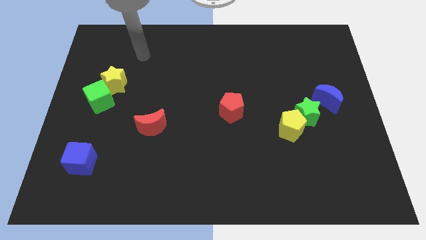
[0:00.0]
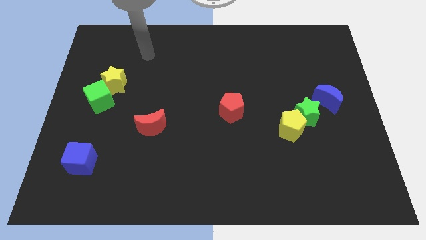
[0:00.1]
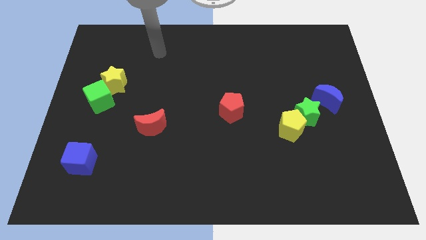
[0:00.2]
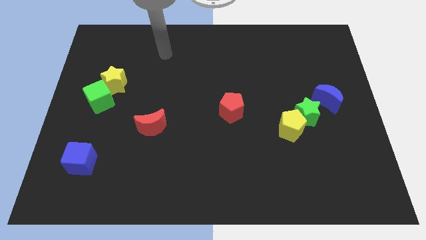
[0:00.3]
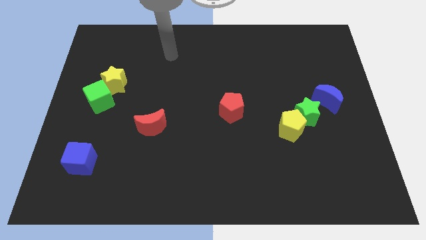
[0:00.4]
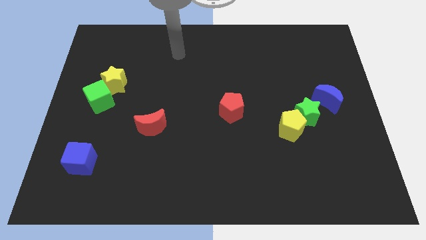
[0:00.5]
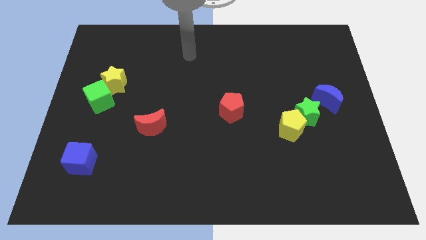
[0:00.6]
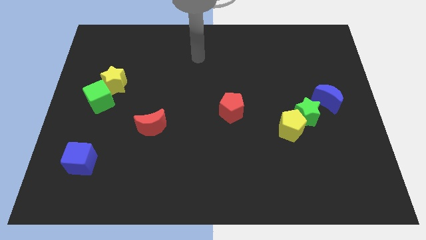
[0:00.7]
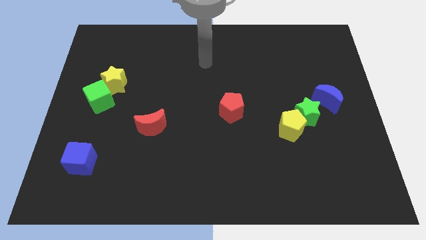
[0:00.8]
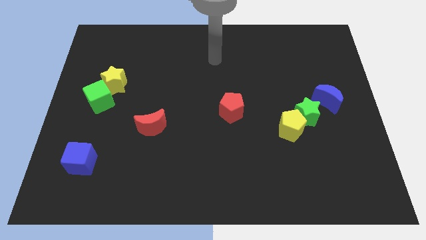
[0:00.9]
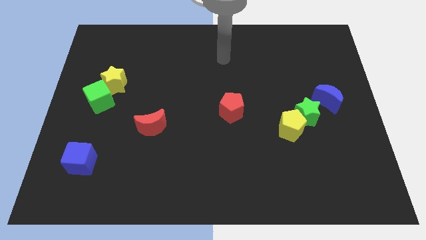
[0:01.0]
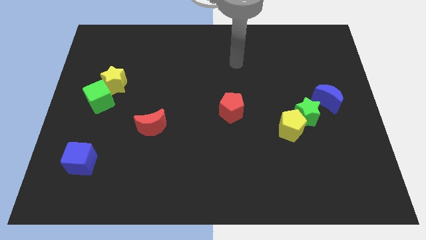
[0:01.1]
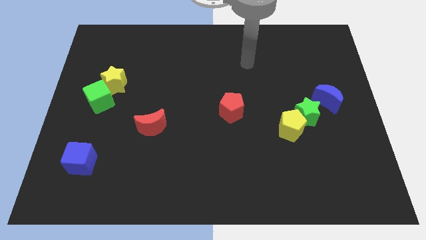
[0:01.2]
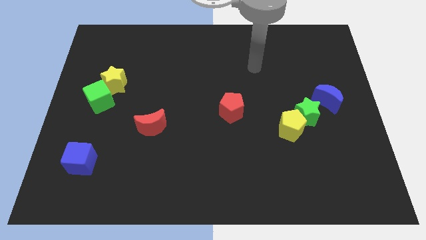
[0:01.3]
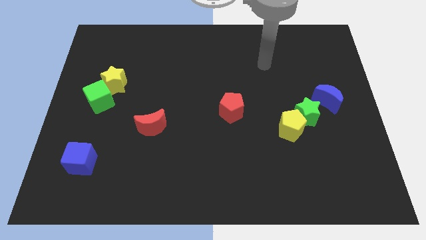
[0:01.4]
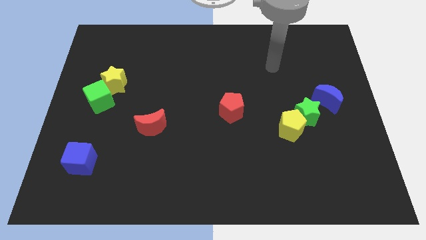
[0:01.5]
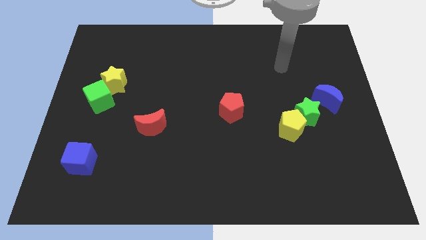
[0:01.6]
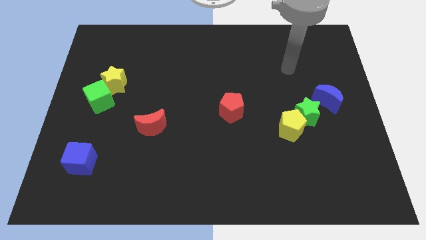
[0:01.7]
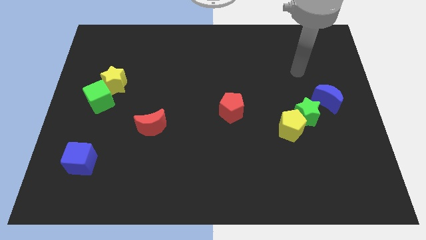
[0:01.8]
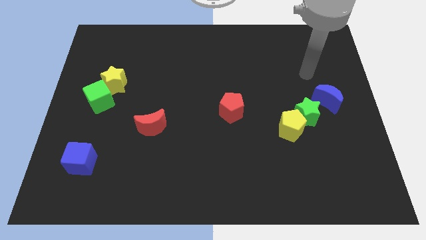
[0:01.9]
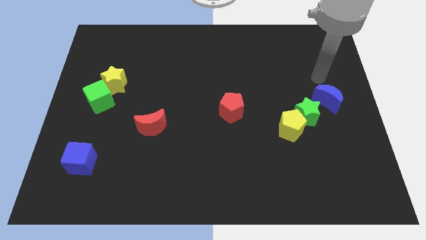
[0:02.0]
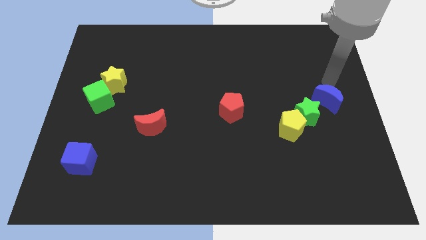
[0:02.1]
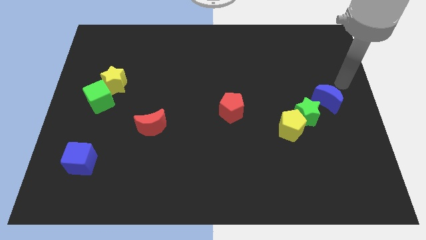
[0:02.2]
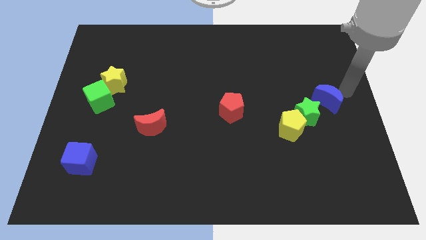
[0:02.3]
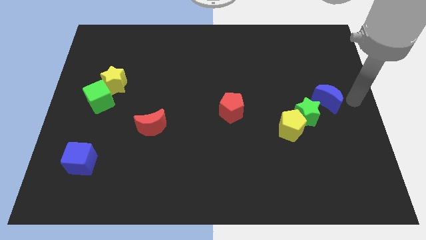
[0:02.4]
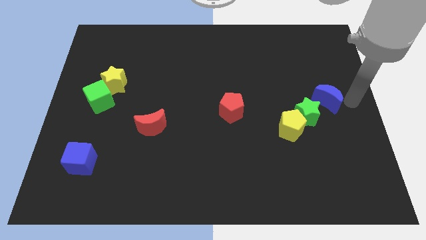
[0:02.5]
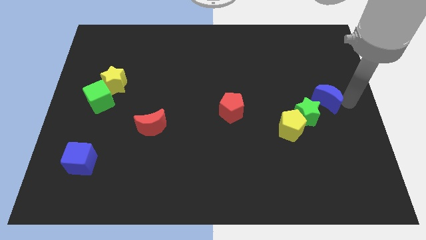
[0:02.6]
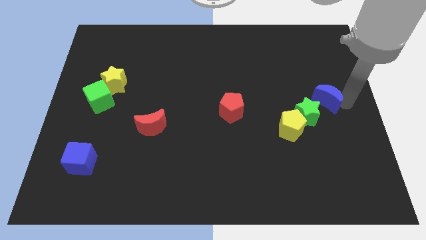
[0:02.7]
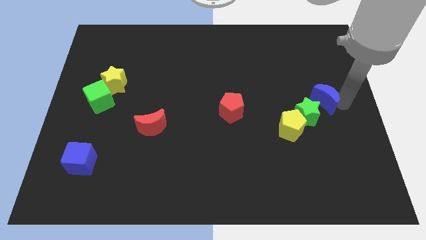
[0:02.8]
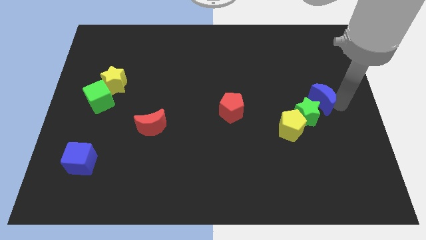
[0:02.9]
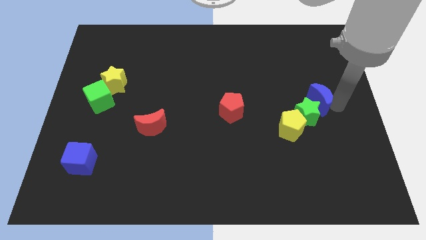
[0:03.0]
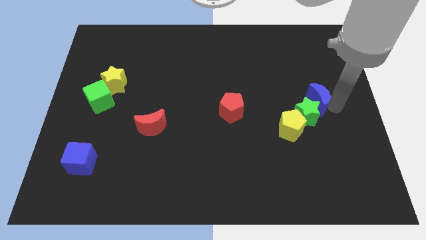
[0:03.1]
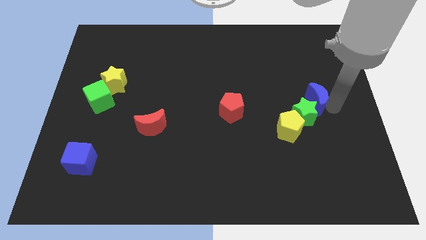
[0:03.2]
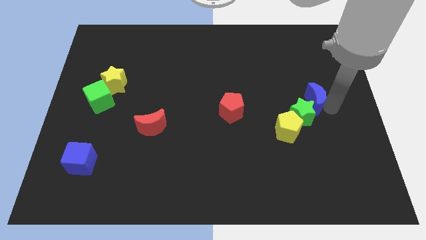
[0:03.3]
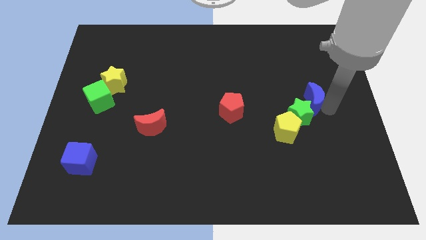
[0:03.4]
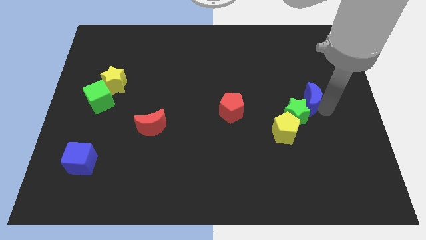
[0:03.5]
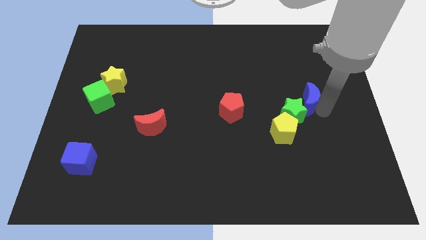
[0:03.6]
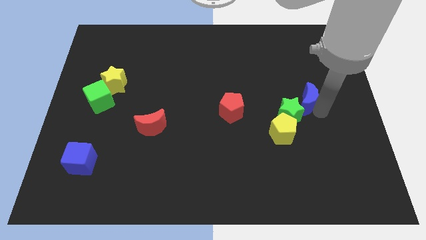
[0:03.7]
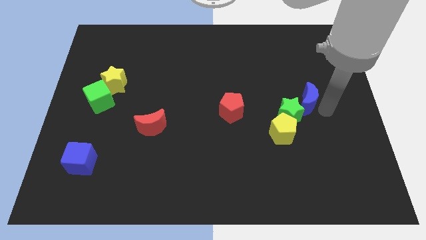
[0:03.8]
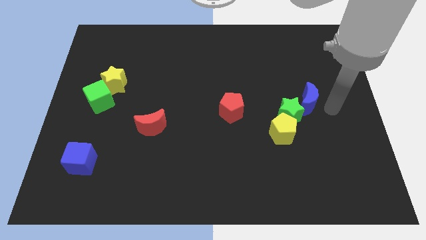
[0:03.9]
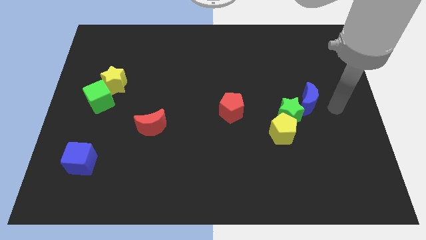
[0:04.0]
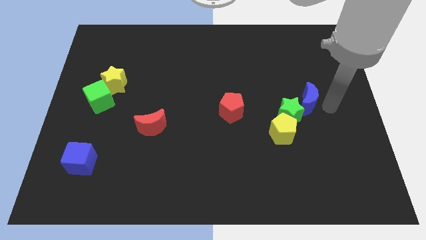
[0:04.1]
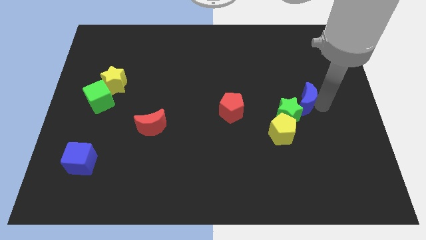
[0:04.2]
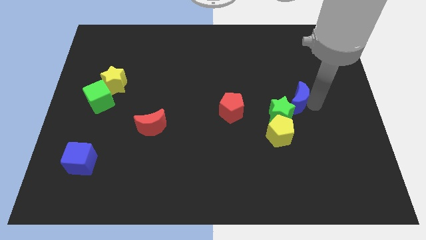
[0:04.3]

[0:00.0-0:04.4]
push the blue moon somewhat left

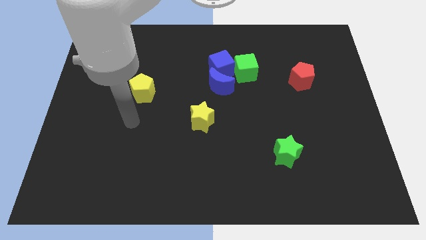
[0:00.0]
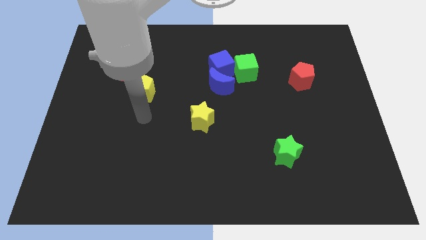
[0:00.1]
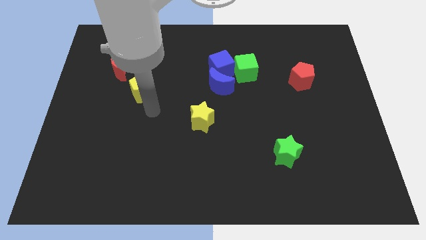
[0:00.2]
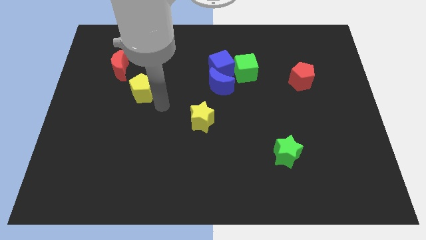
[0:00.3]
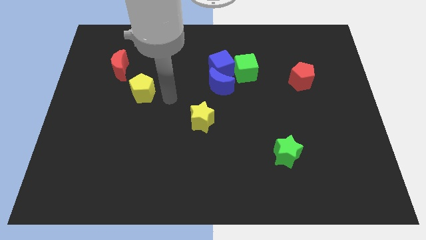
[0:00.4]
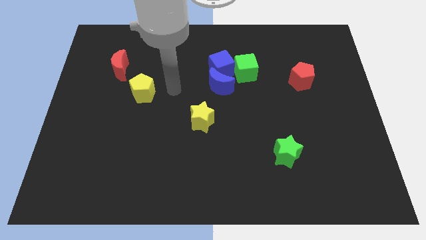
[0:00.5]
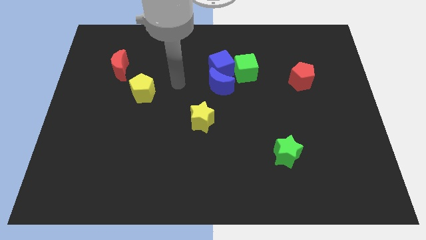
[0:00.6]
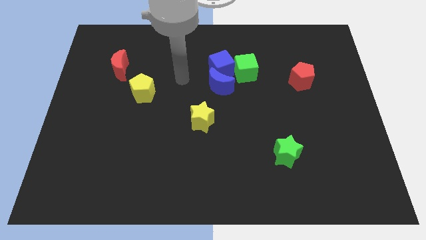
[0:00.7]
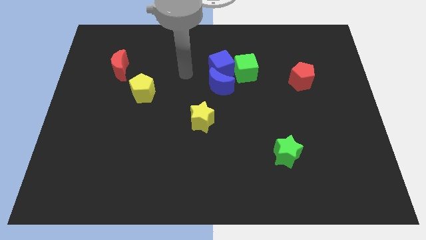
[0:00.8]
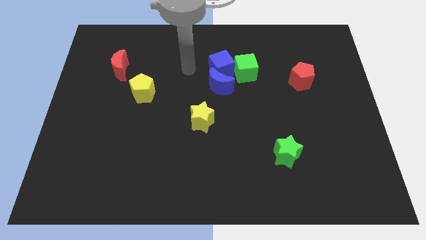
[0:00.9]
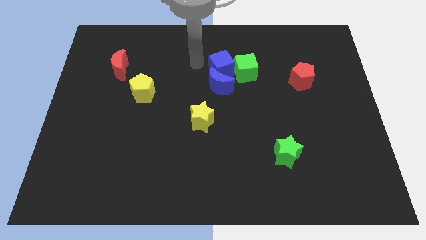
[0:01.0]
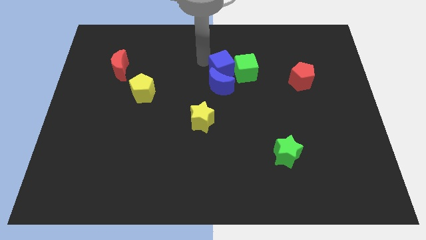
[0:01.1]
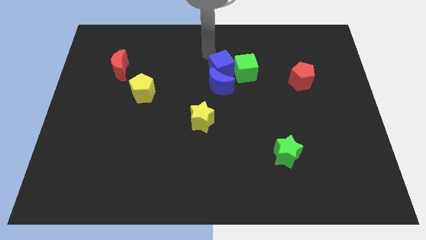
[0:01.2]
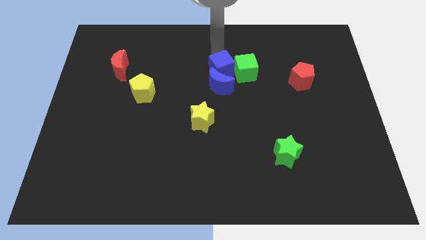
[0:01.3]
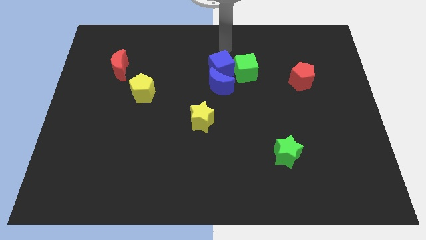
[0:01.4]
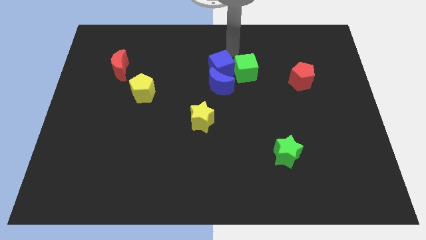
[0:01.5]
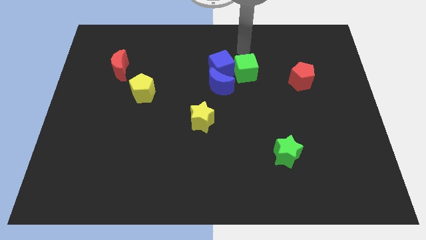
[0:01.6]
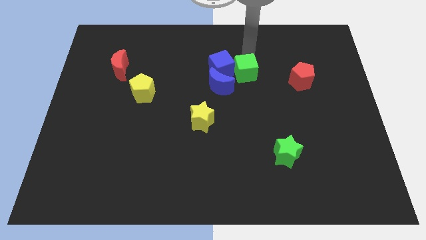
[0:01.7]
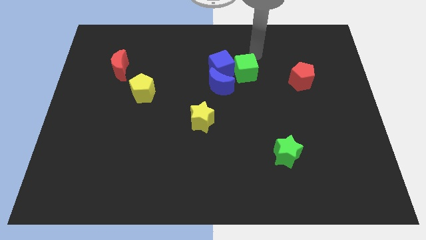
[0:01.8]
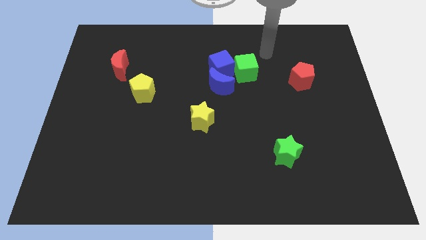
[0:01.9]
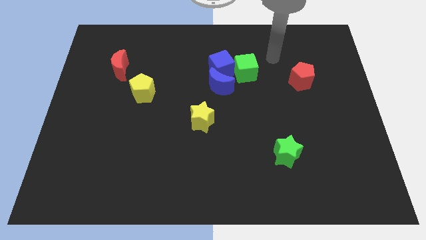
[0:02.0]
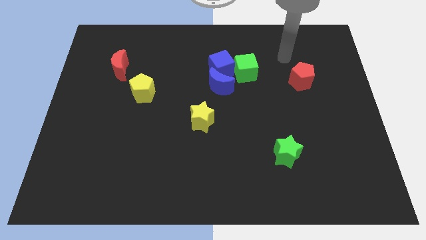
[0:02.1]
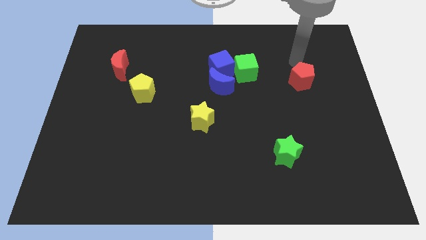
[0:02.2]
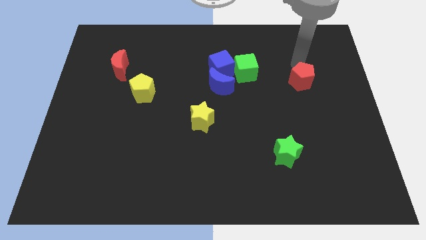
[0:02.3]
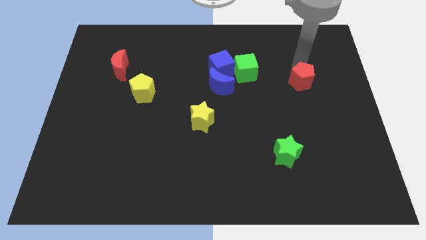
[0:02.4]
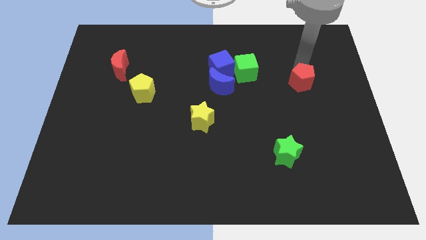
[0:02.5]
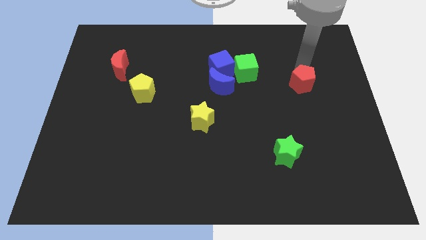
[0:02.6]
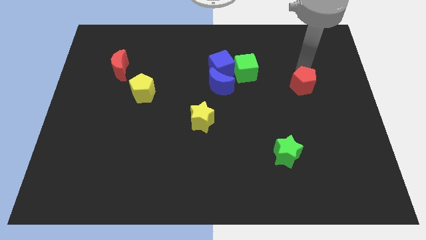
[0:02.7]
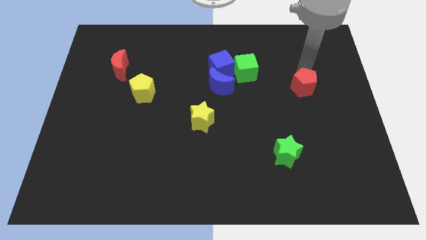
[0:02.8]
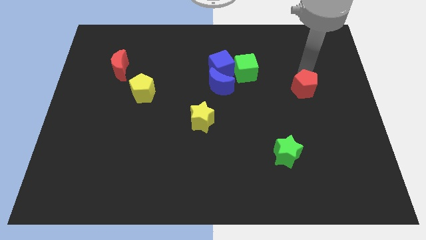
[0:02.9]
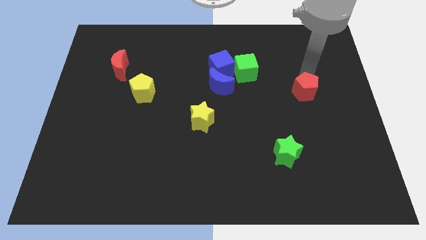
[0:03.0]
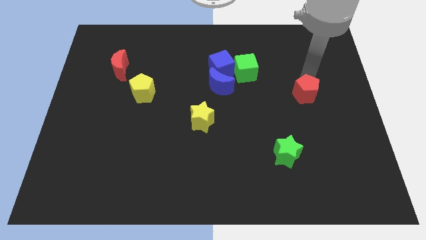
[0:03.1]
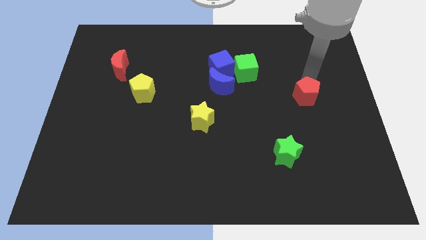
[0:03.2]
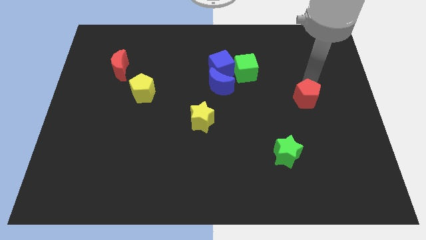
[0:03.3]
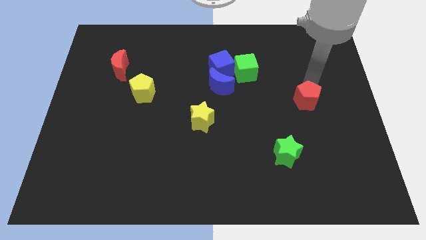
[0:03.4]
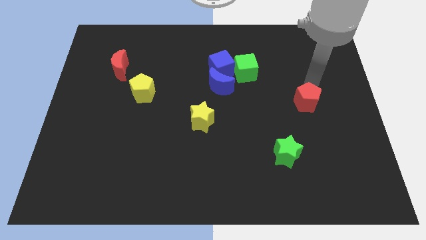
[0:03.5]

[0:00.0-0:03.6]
push the red pentagon a bit down
